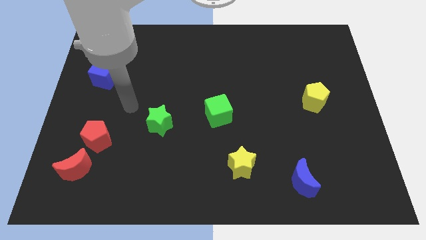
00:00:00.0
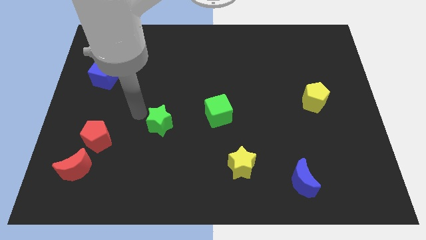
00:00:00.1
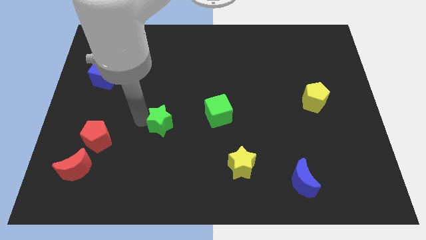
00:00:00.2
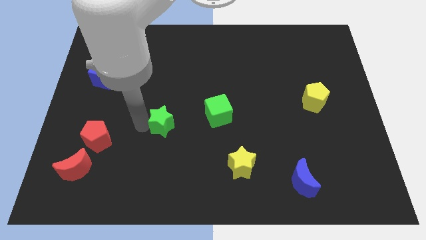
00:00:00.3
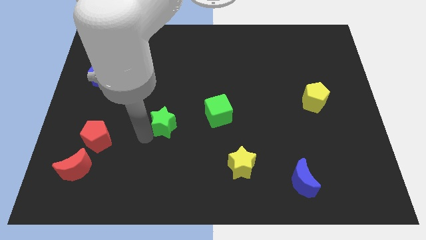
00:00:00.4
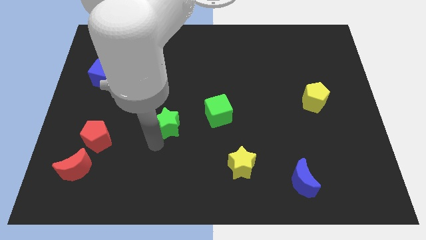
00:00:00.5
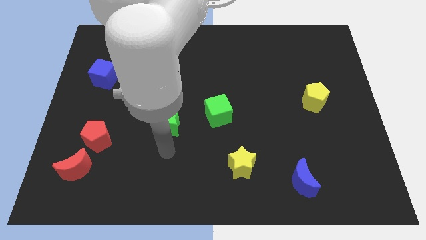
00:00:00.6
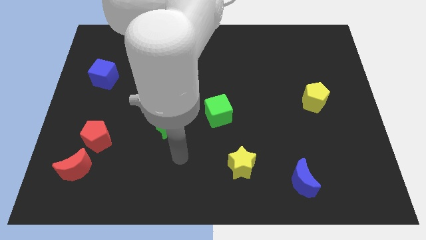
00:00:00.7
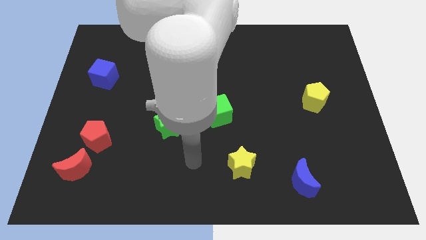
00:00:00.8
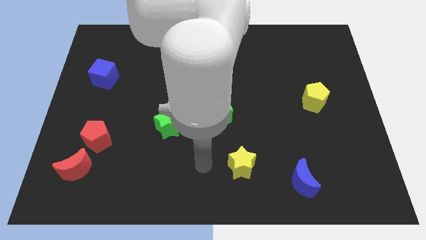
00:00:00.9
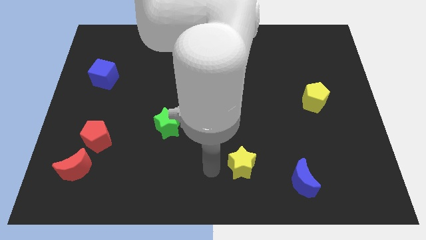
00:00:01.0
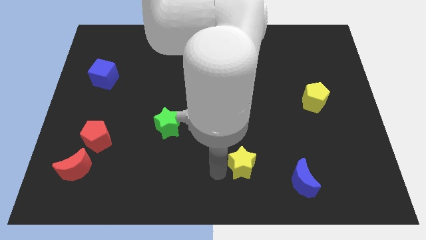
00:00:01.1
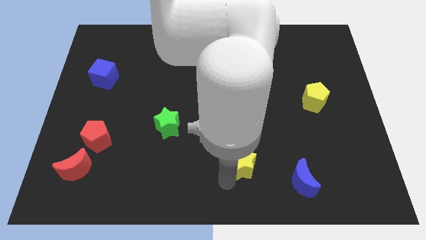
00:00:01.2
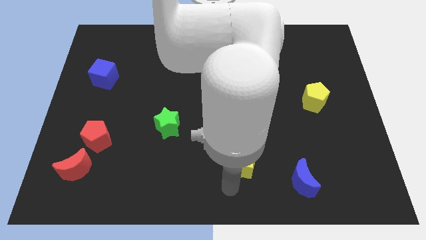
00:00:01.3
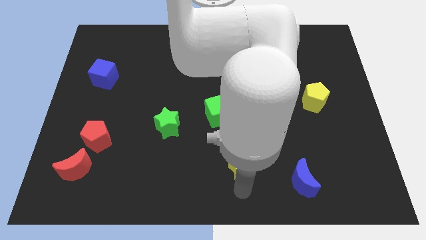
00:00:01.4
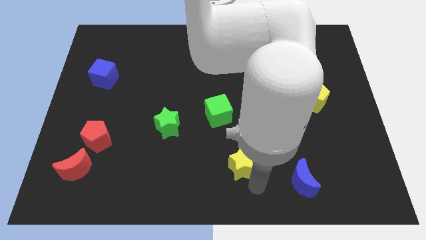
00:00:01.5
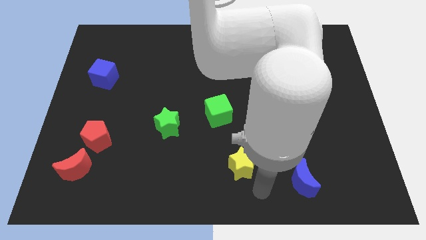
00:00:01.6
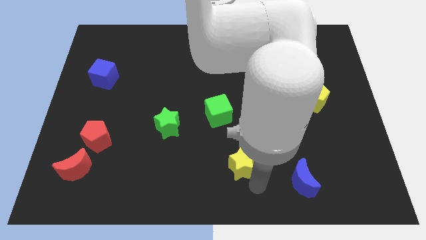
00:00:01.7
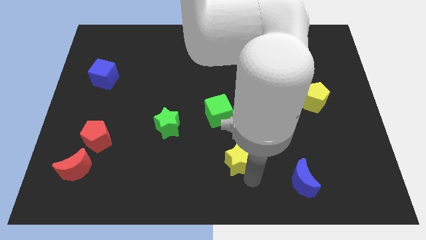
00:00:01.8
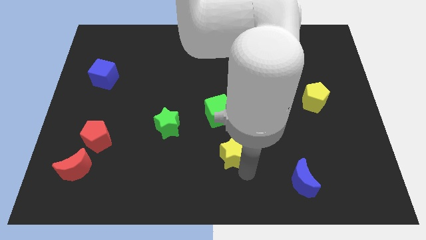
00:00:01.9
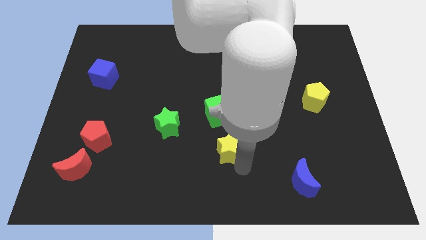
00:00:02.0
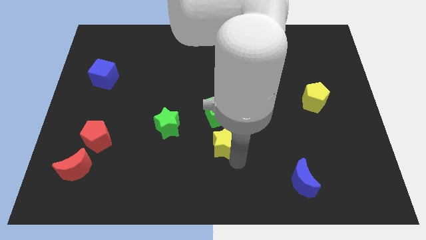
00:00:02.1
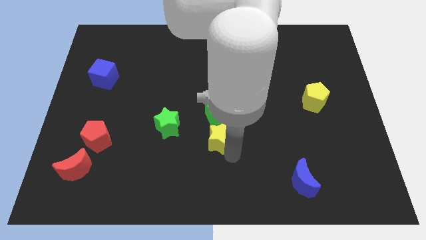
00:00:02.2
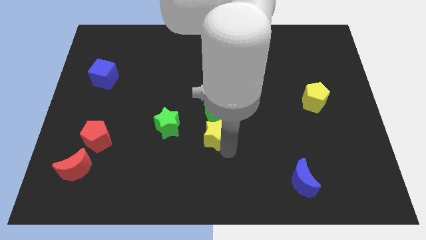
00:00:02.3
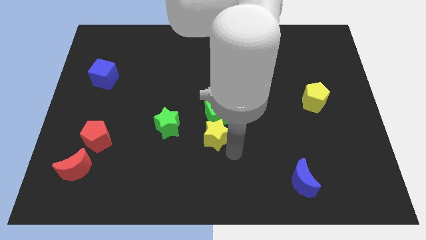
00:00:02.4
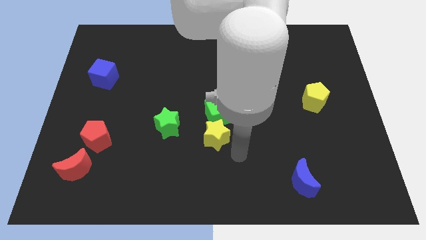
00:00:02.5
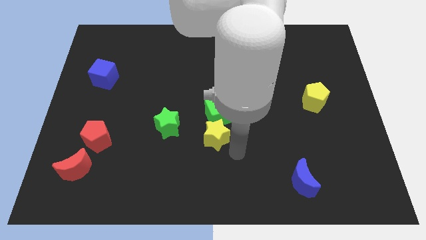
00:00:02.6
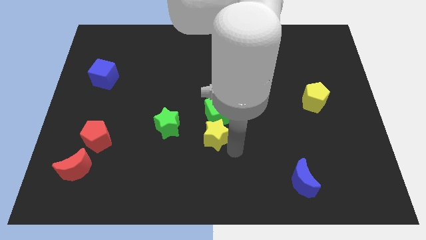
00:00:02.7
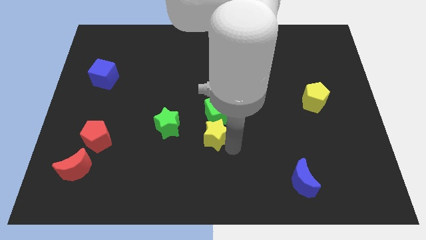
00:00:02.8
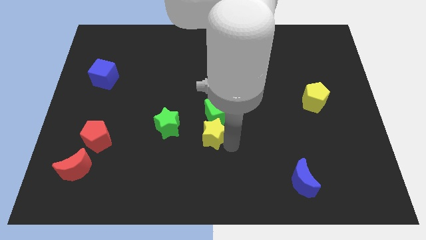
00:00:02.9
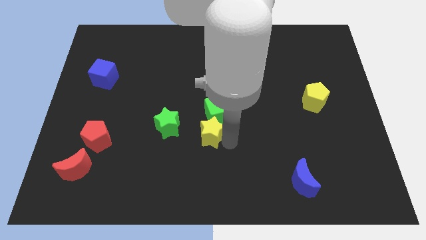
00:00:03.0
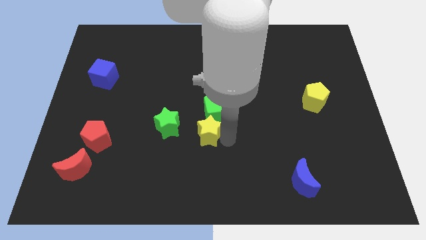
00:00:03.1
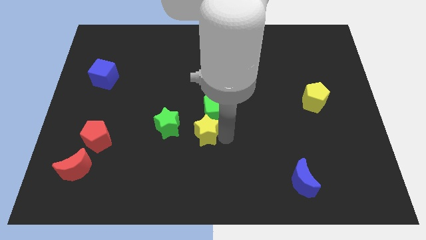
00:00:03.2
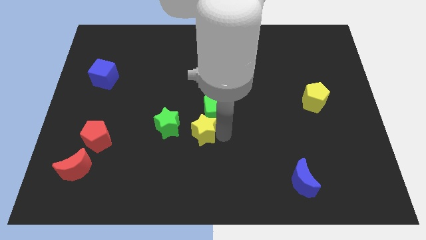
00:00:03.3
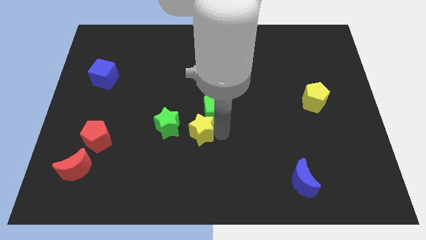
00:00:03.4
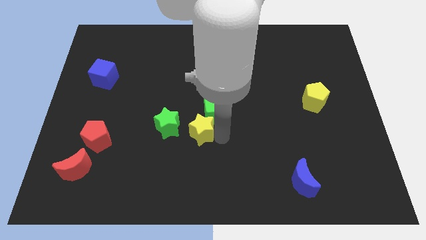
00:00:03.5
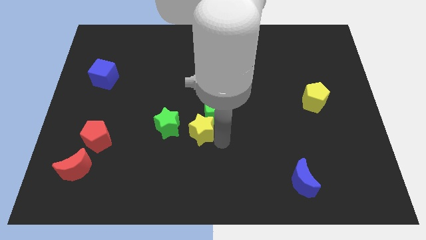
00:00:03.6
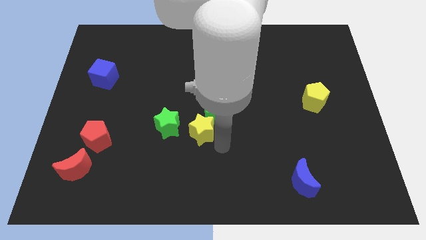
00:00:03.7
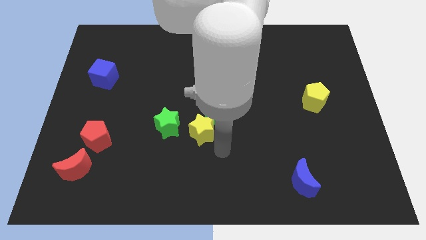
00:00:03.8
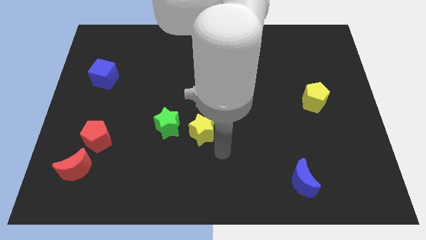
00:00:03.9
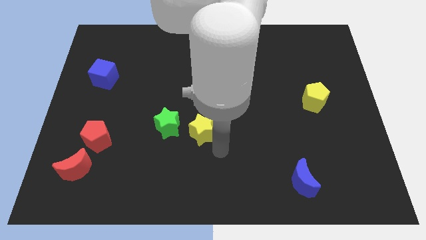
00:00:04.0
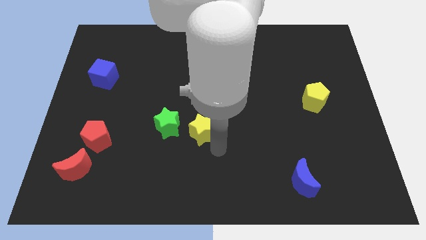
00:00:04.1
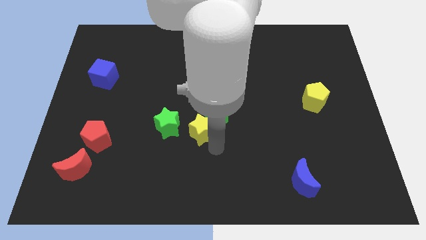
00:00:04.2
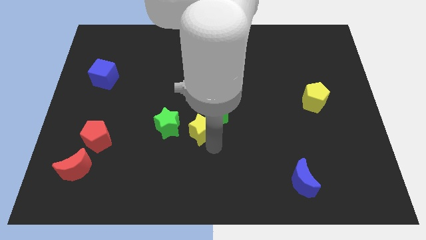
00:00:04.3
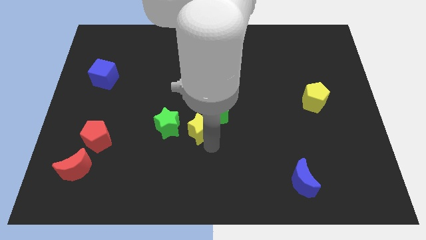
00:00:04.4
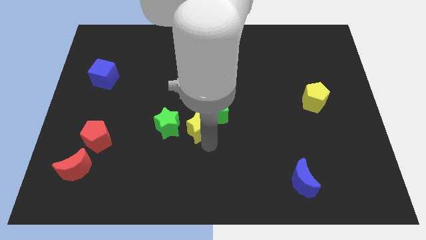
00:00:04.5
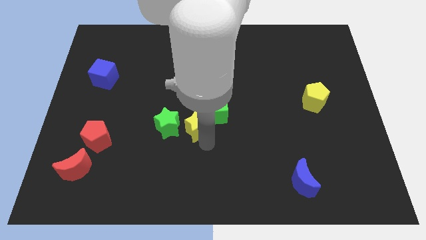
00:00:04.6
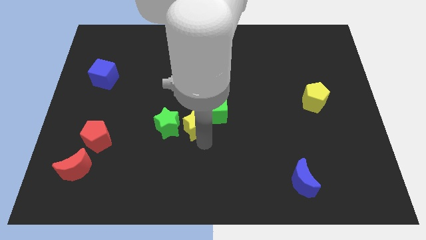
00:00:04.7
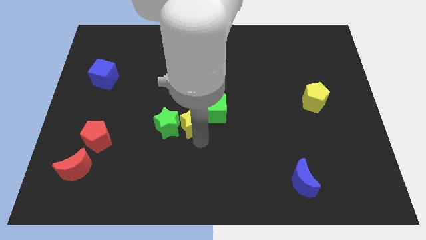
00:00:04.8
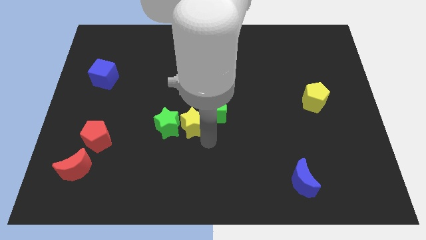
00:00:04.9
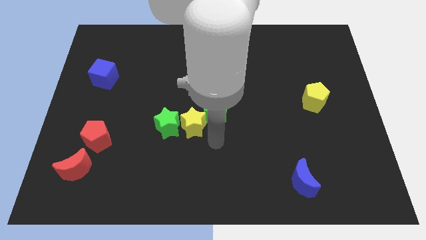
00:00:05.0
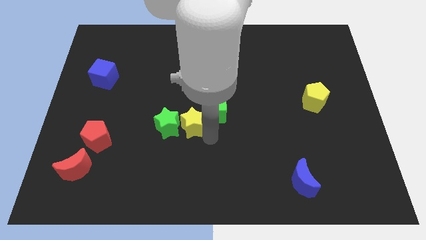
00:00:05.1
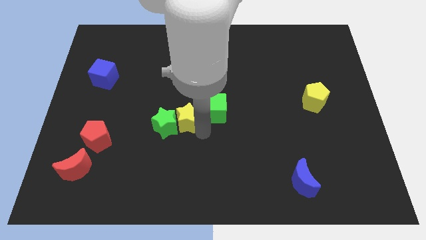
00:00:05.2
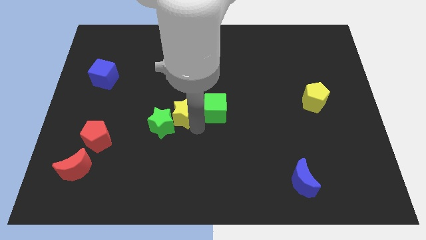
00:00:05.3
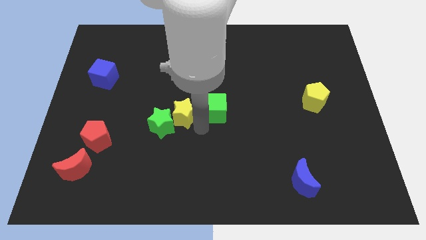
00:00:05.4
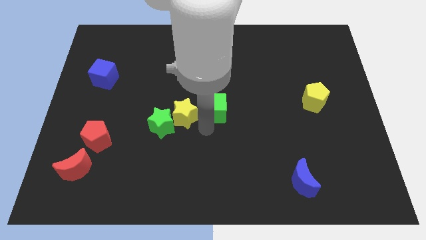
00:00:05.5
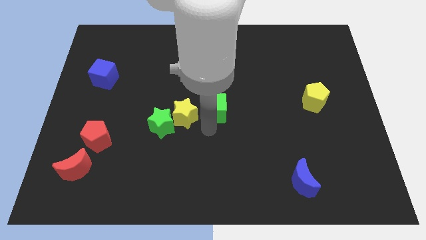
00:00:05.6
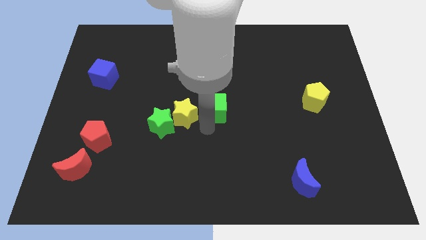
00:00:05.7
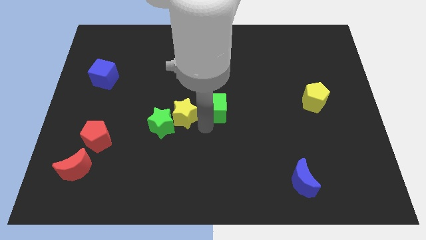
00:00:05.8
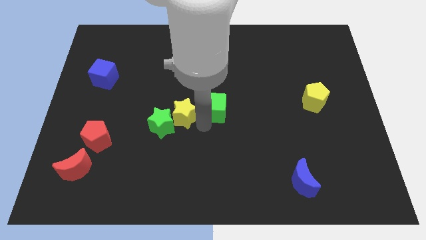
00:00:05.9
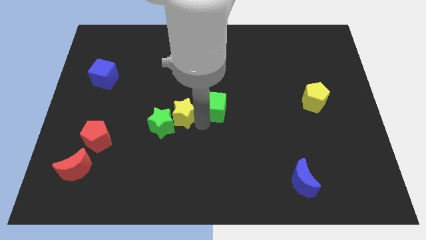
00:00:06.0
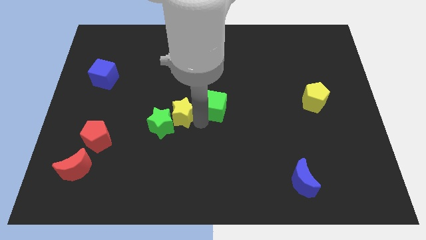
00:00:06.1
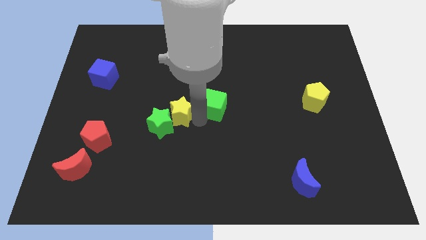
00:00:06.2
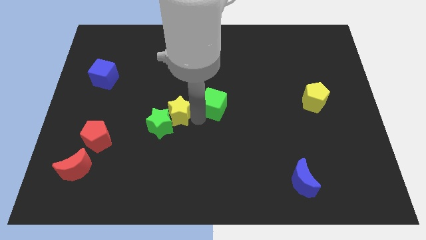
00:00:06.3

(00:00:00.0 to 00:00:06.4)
push the yellow star to the top side of the green star

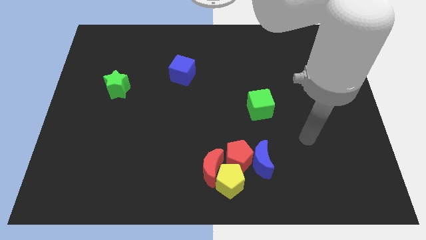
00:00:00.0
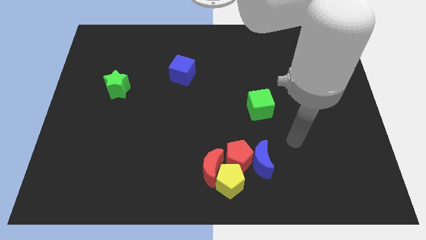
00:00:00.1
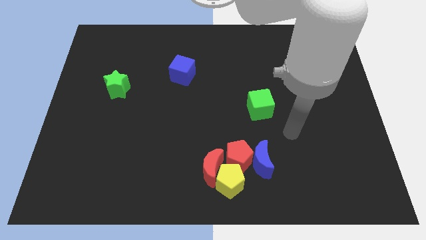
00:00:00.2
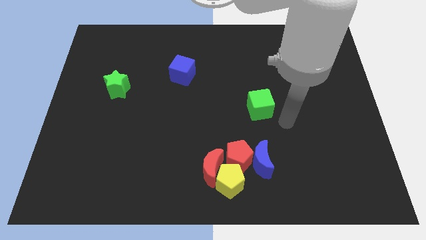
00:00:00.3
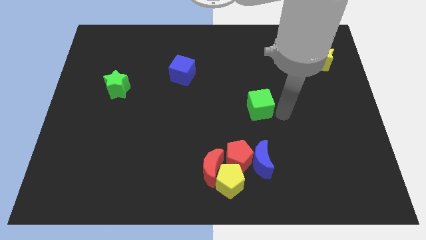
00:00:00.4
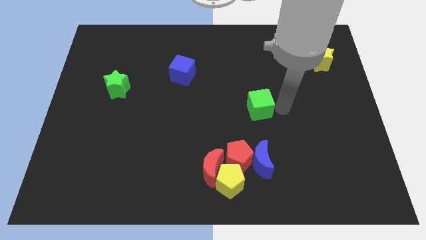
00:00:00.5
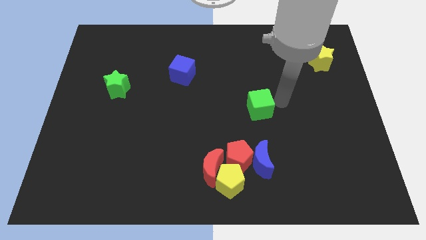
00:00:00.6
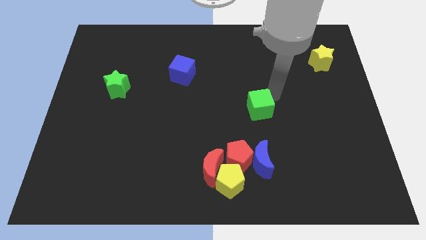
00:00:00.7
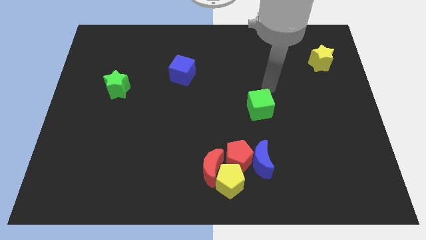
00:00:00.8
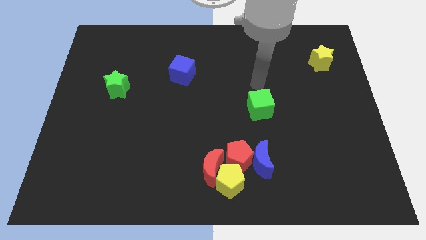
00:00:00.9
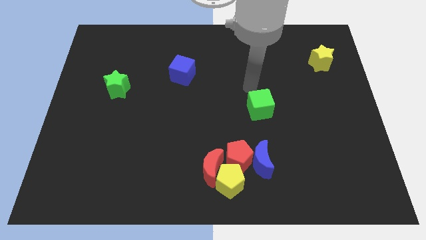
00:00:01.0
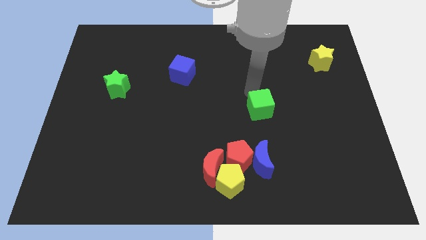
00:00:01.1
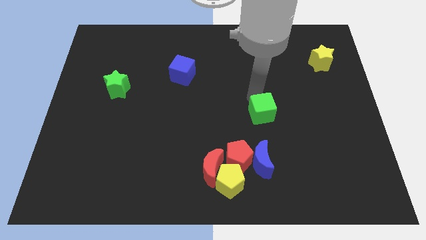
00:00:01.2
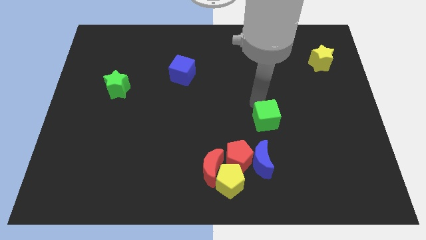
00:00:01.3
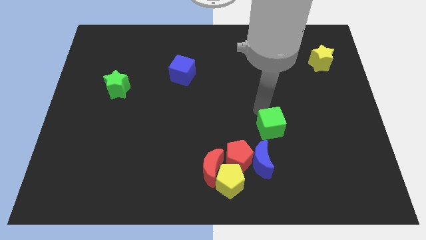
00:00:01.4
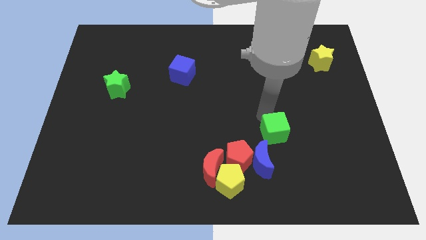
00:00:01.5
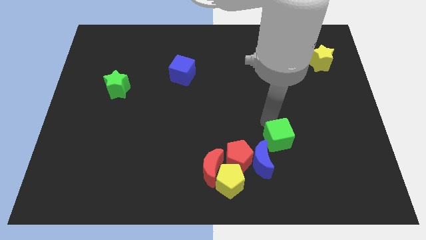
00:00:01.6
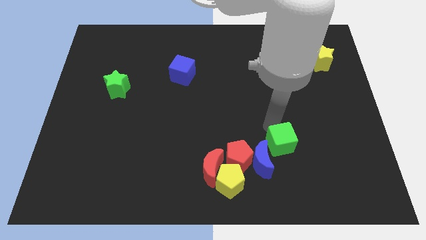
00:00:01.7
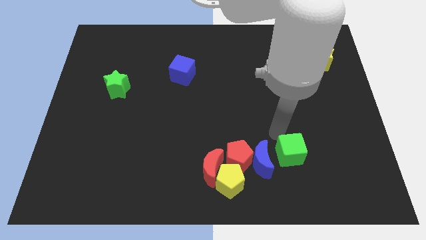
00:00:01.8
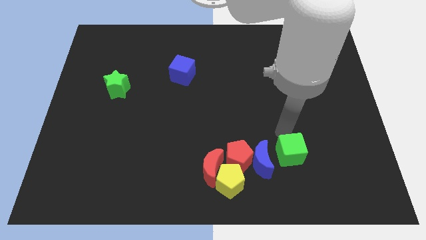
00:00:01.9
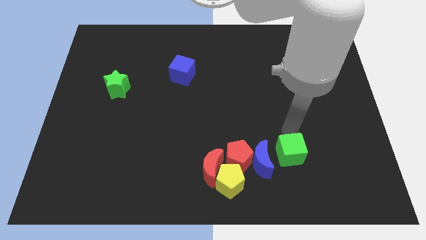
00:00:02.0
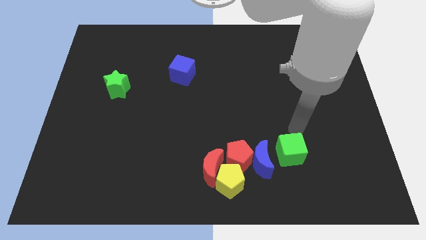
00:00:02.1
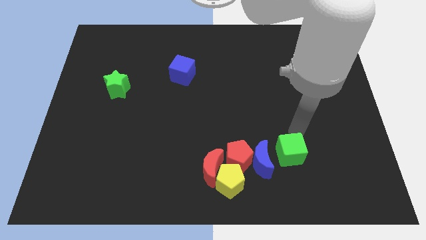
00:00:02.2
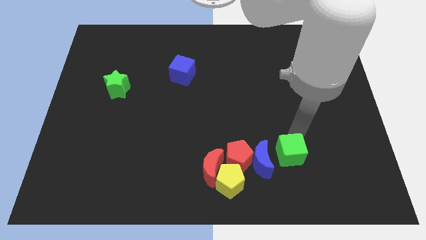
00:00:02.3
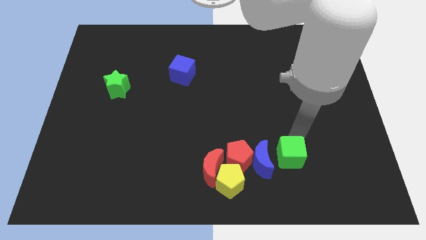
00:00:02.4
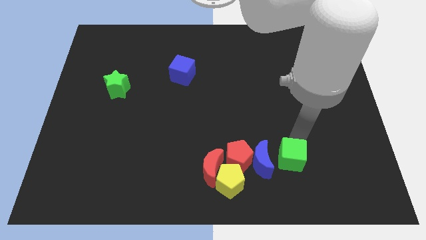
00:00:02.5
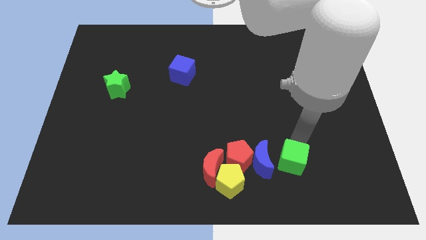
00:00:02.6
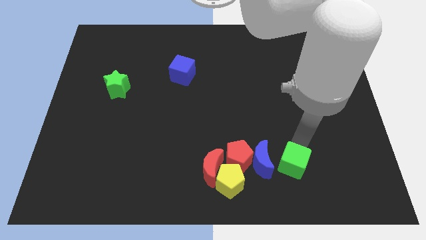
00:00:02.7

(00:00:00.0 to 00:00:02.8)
put the green cube just right of the yellow pentagon
